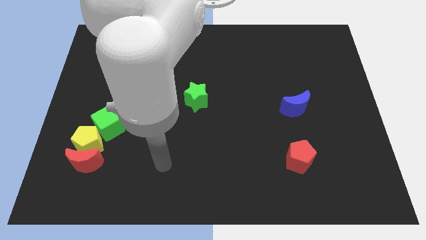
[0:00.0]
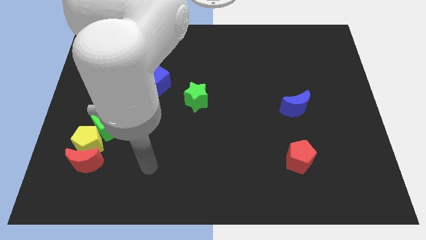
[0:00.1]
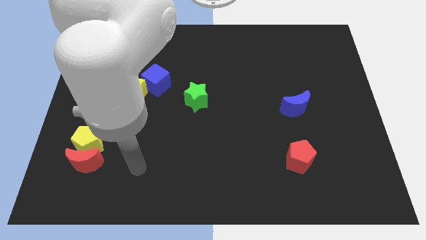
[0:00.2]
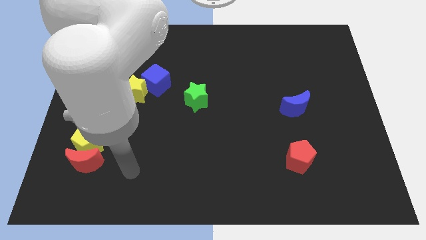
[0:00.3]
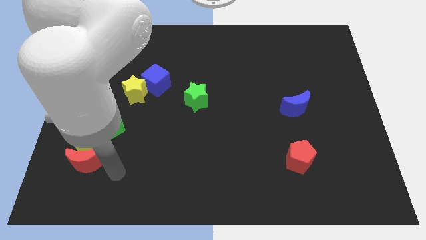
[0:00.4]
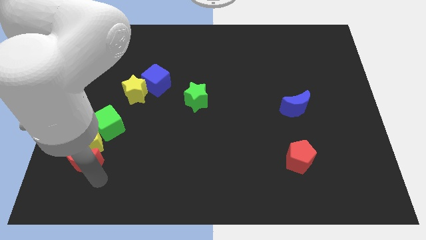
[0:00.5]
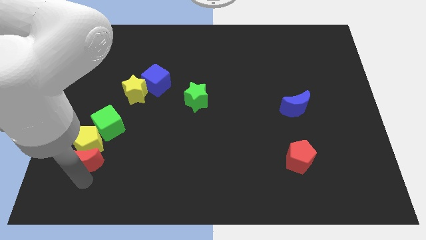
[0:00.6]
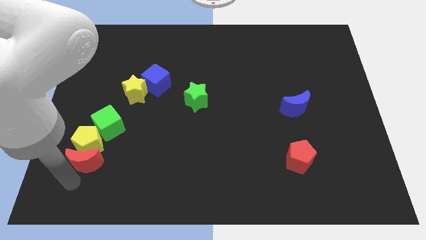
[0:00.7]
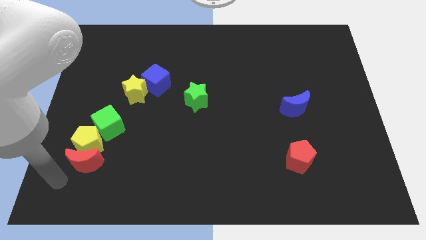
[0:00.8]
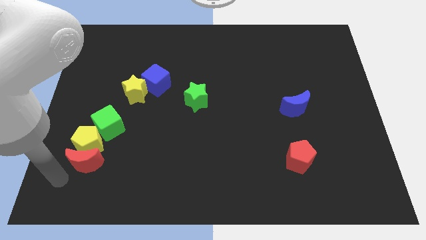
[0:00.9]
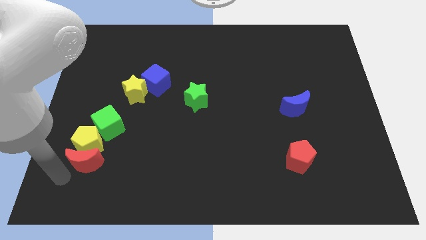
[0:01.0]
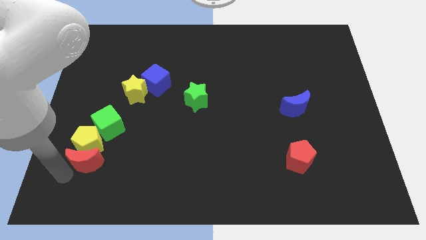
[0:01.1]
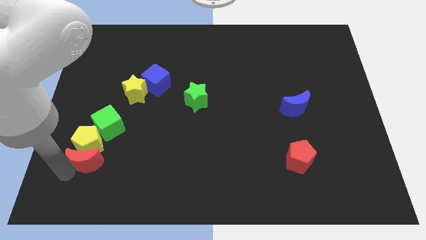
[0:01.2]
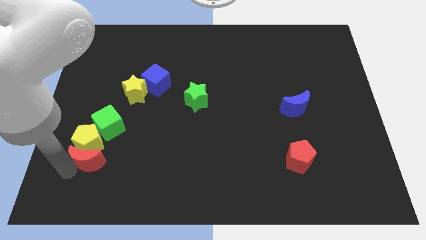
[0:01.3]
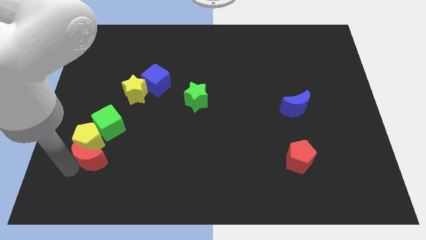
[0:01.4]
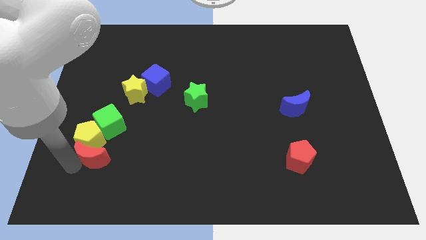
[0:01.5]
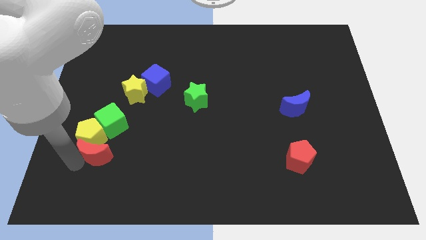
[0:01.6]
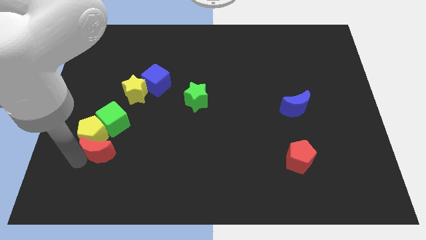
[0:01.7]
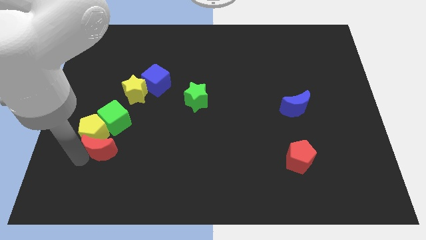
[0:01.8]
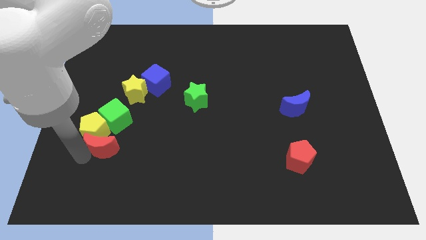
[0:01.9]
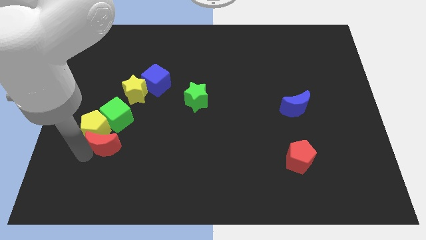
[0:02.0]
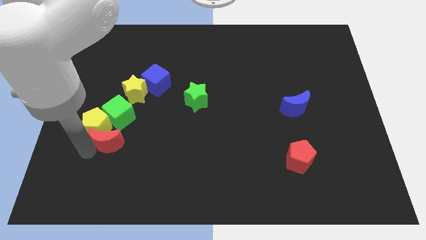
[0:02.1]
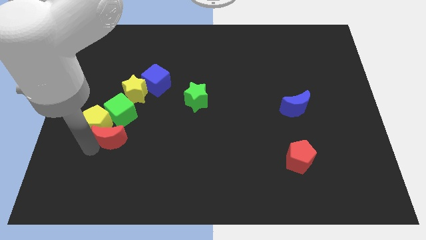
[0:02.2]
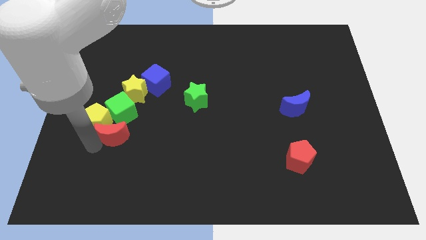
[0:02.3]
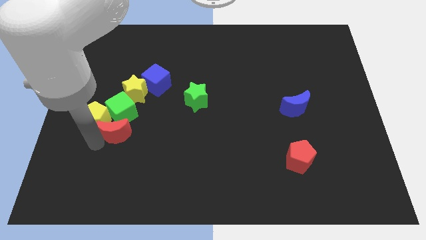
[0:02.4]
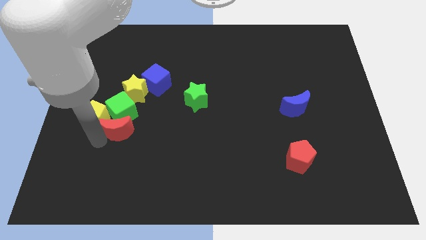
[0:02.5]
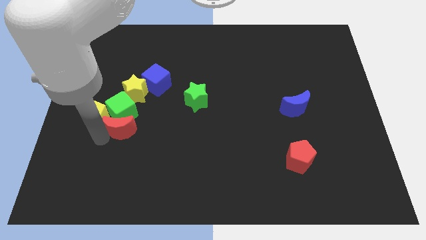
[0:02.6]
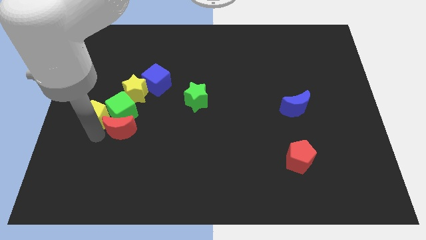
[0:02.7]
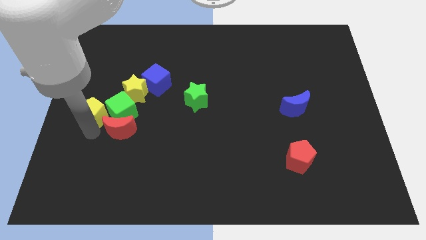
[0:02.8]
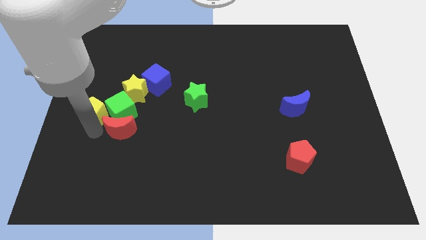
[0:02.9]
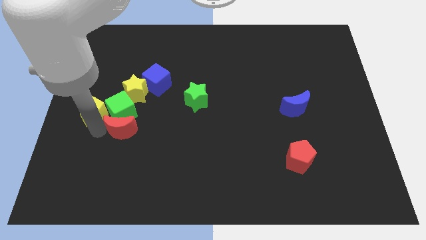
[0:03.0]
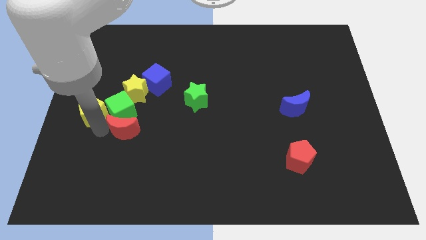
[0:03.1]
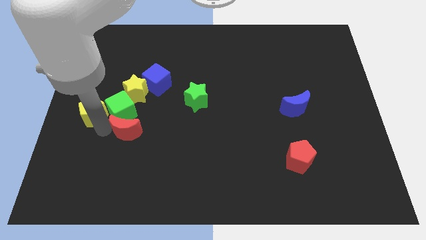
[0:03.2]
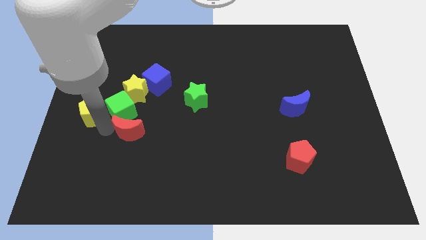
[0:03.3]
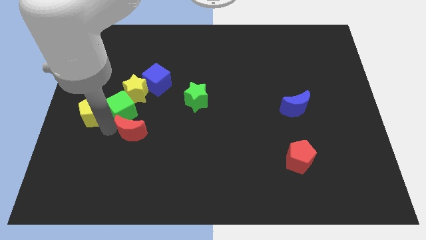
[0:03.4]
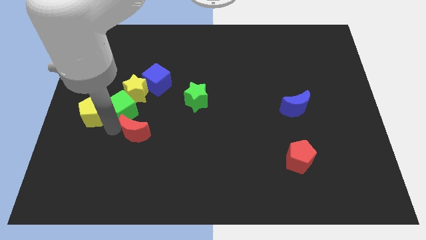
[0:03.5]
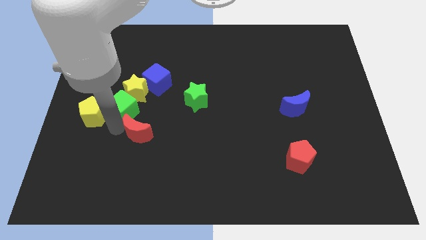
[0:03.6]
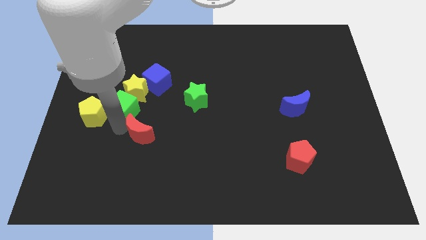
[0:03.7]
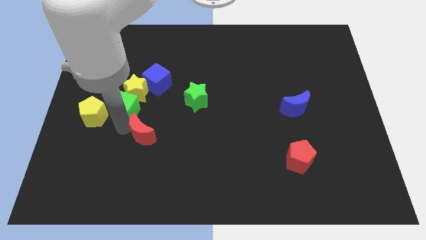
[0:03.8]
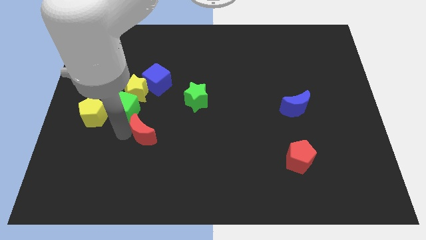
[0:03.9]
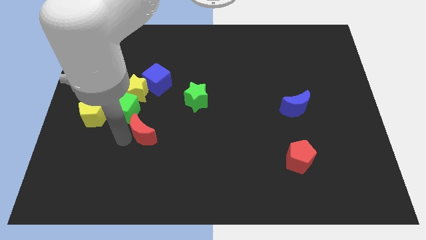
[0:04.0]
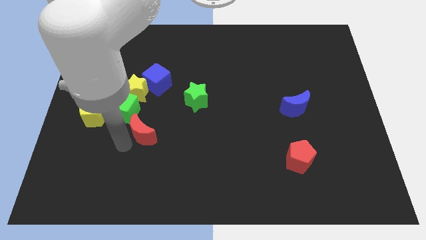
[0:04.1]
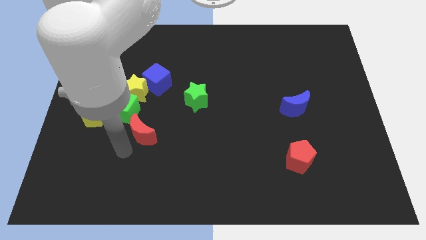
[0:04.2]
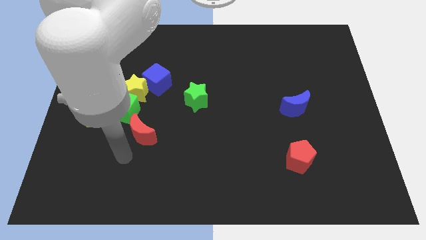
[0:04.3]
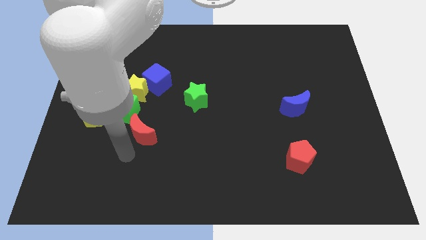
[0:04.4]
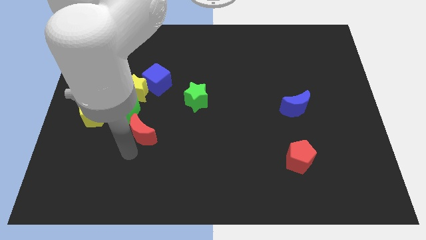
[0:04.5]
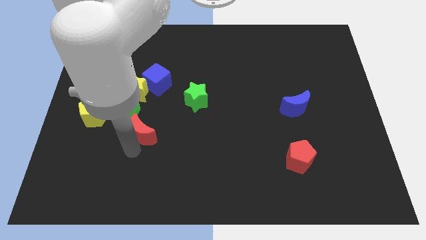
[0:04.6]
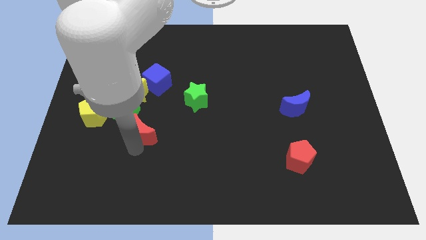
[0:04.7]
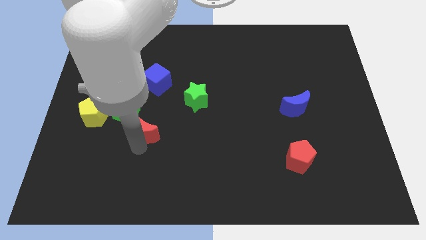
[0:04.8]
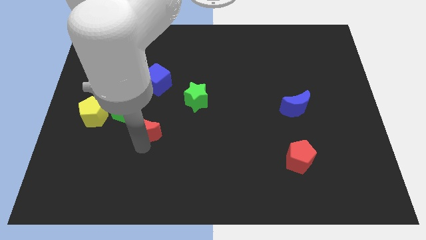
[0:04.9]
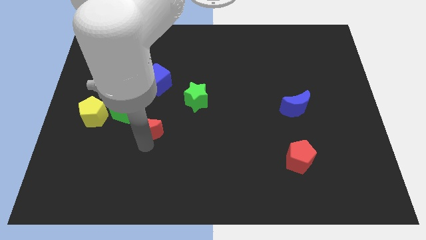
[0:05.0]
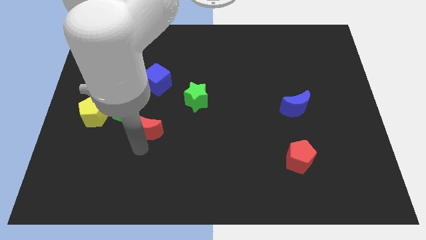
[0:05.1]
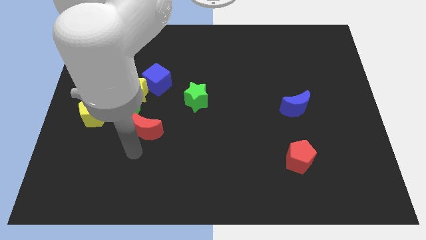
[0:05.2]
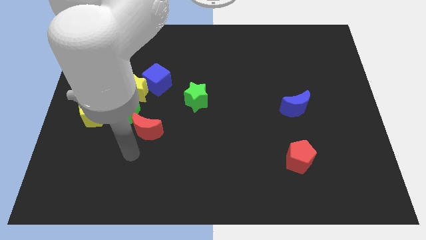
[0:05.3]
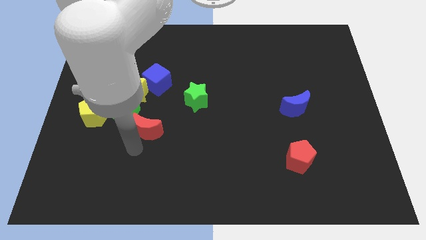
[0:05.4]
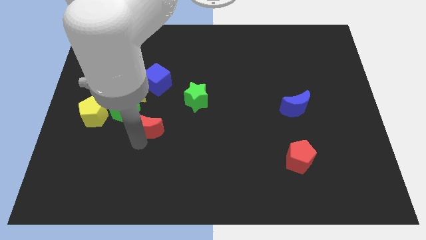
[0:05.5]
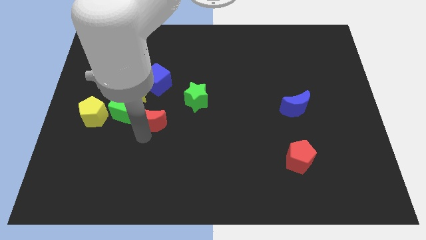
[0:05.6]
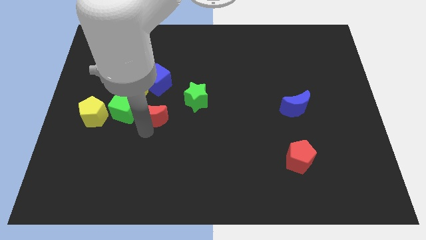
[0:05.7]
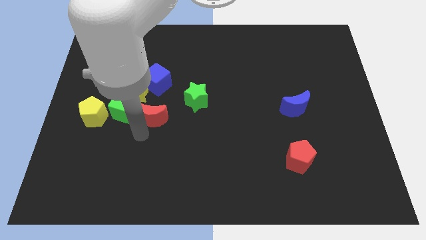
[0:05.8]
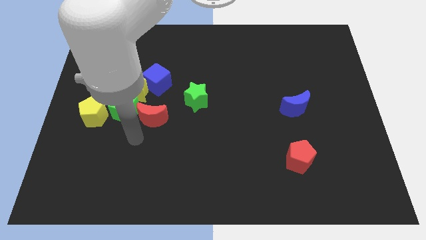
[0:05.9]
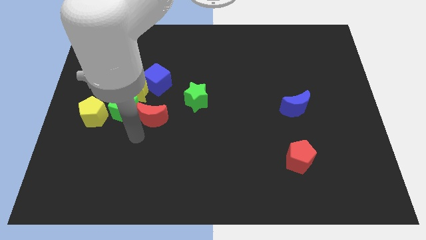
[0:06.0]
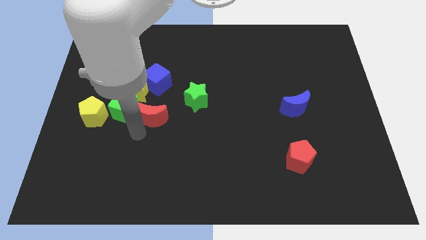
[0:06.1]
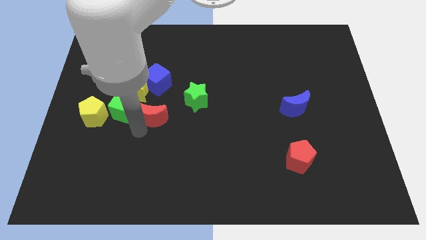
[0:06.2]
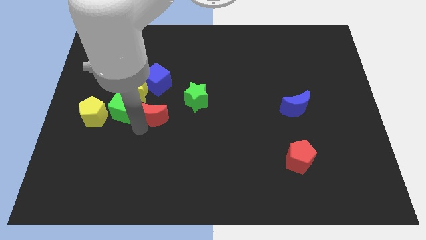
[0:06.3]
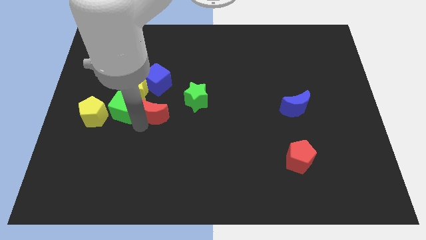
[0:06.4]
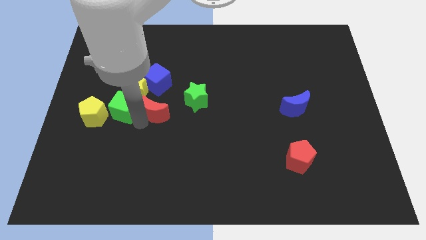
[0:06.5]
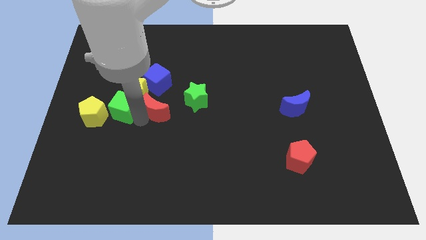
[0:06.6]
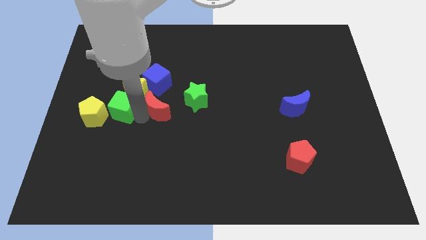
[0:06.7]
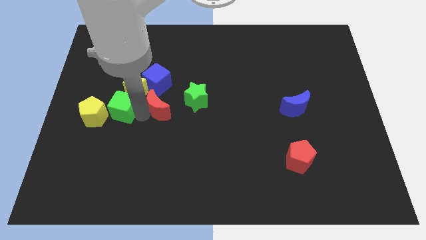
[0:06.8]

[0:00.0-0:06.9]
slide the red moon upwards and to the right

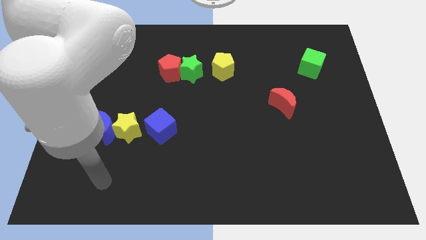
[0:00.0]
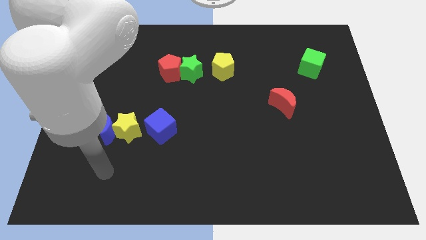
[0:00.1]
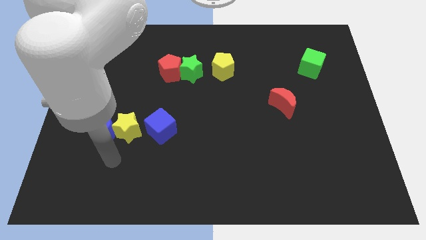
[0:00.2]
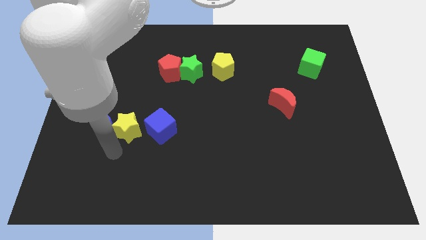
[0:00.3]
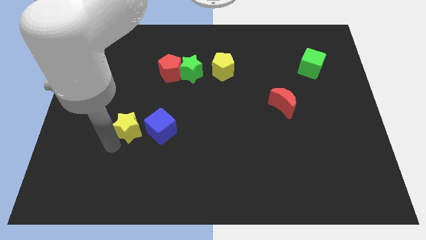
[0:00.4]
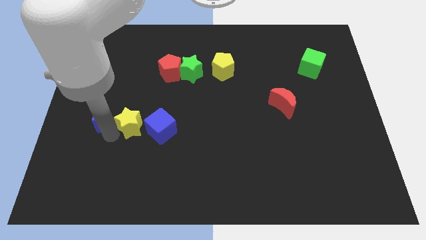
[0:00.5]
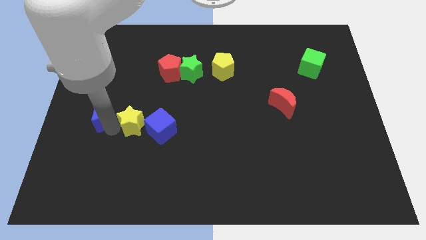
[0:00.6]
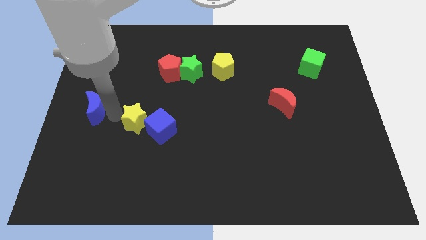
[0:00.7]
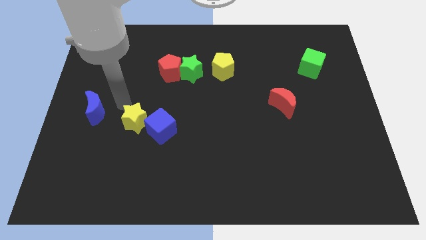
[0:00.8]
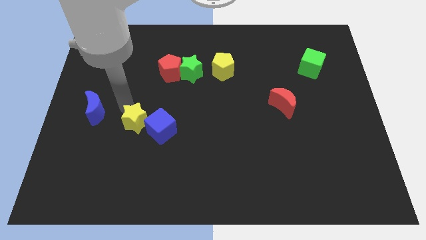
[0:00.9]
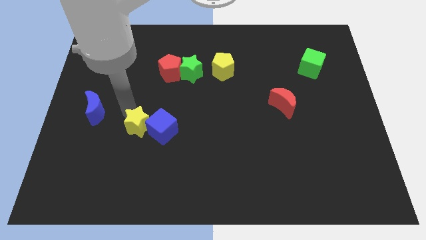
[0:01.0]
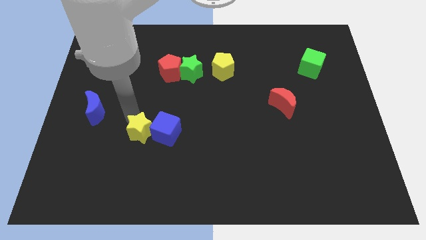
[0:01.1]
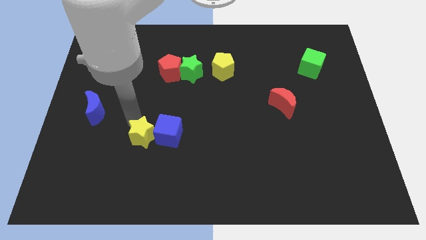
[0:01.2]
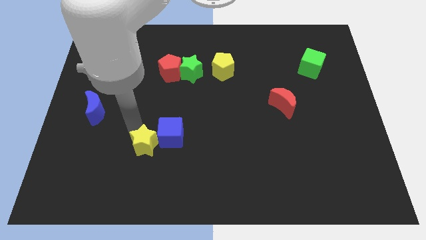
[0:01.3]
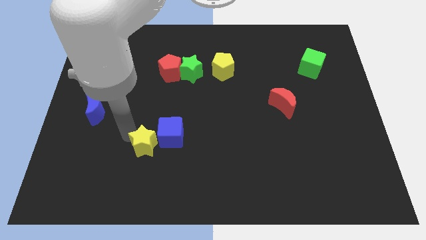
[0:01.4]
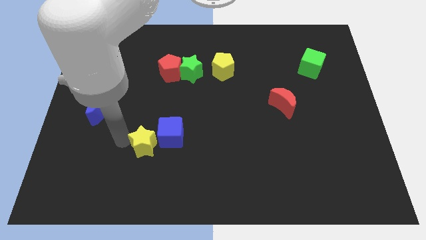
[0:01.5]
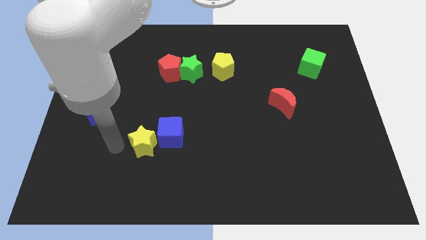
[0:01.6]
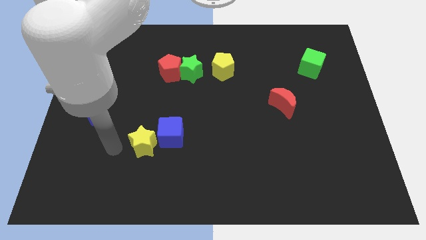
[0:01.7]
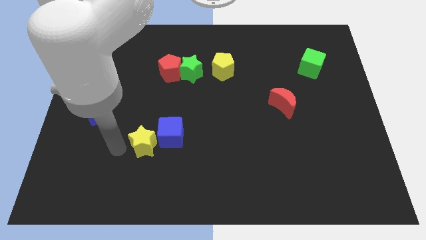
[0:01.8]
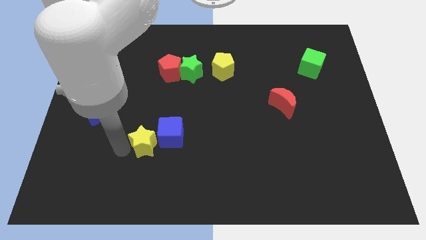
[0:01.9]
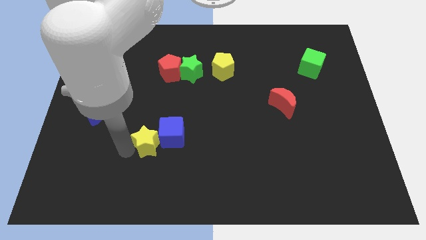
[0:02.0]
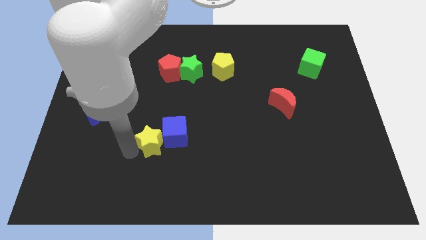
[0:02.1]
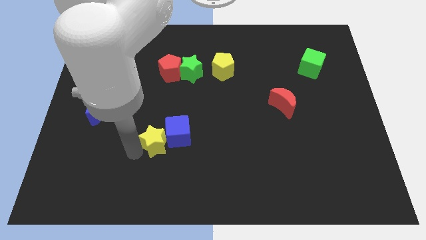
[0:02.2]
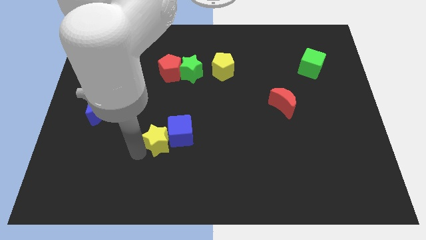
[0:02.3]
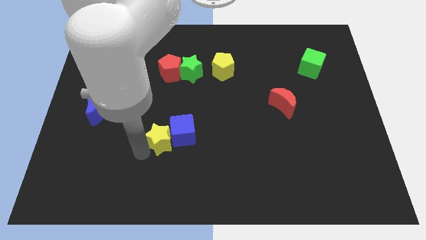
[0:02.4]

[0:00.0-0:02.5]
push the yellow star right slightly
